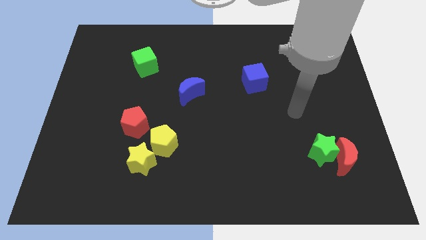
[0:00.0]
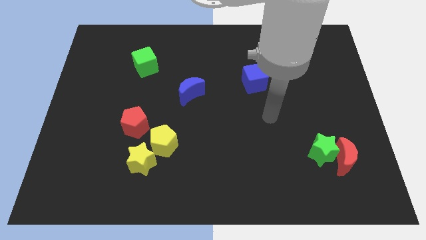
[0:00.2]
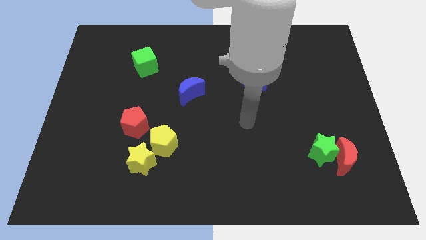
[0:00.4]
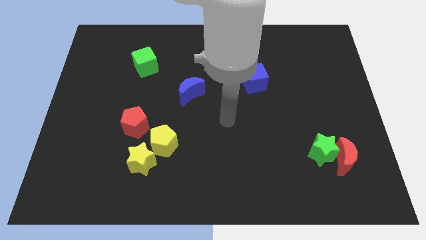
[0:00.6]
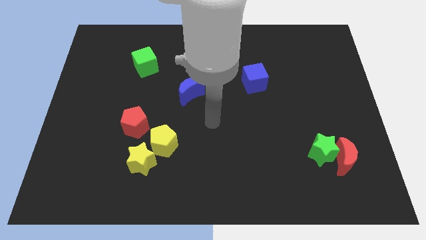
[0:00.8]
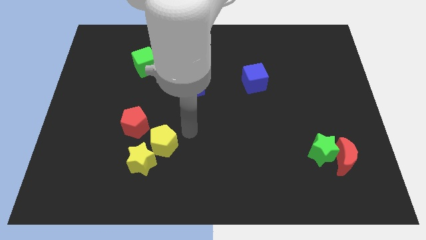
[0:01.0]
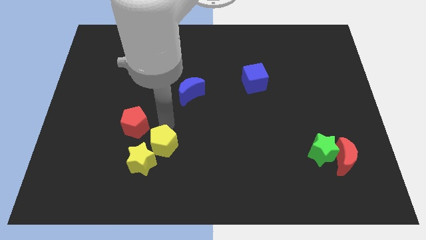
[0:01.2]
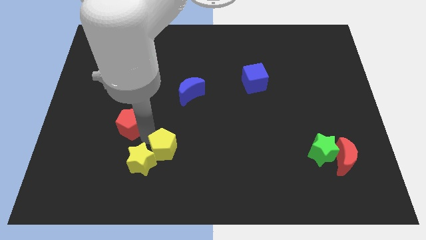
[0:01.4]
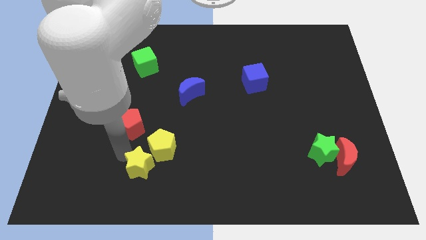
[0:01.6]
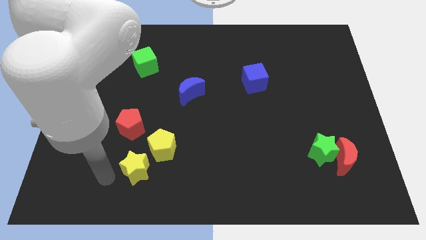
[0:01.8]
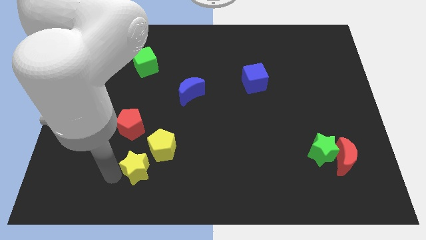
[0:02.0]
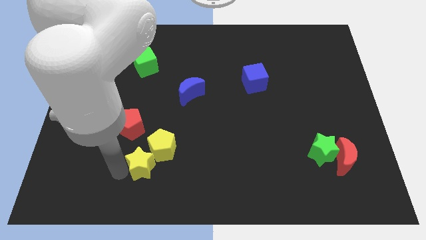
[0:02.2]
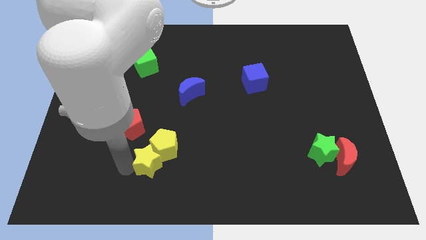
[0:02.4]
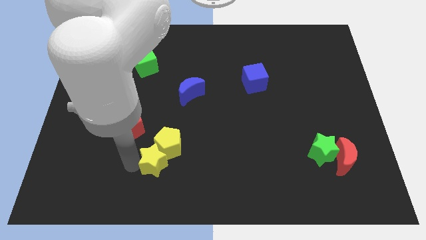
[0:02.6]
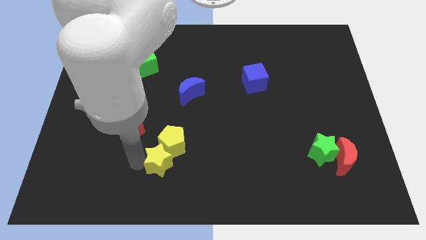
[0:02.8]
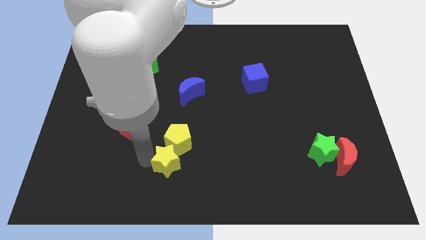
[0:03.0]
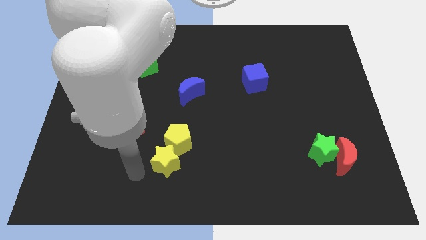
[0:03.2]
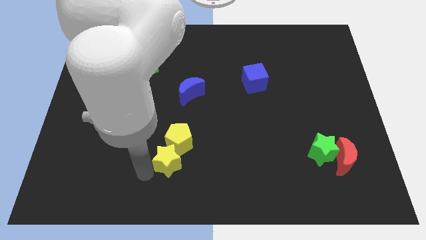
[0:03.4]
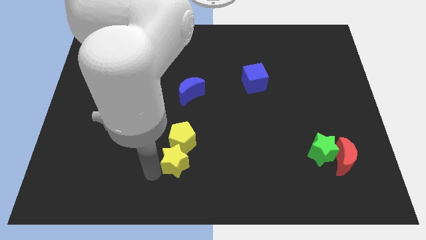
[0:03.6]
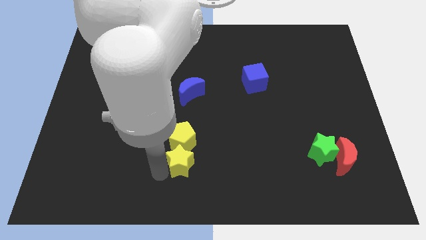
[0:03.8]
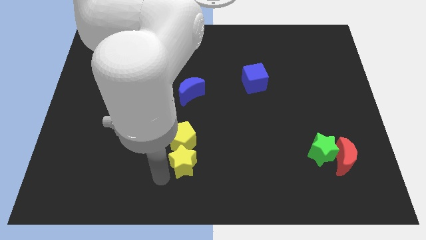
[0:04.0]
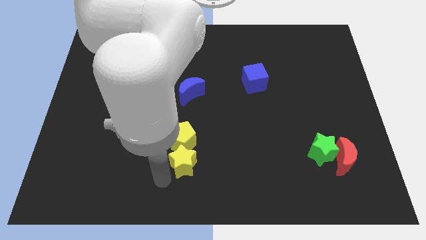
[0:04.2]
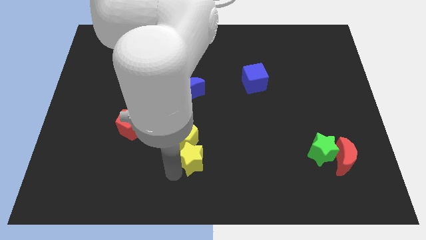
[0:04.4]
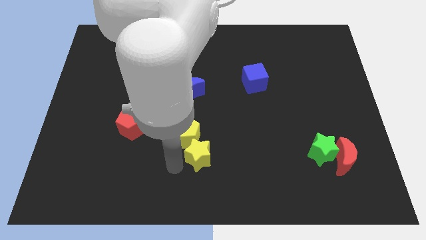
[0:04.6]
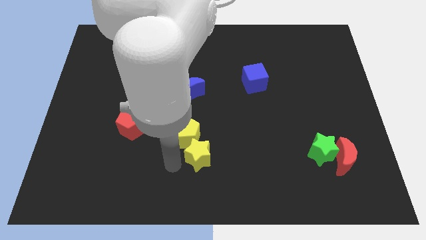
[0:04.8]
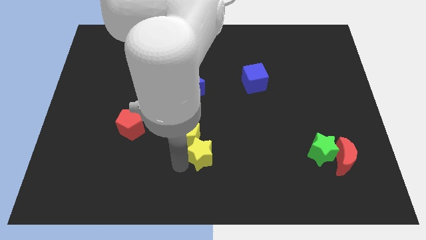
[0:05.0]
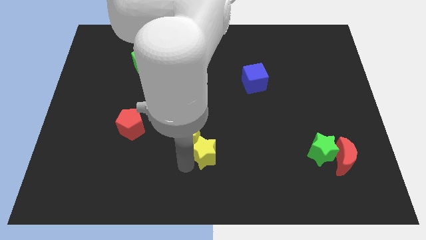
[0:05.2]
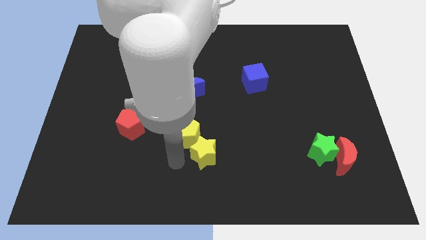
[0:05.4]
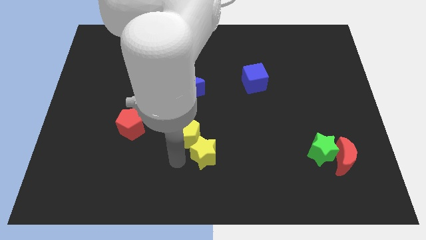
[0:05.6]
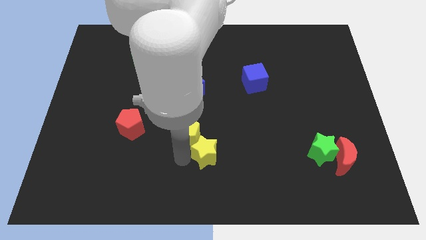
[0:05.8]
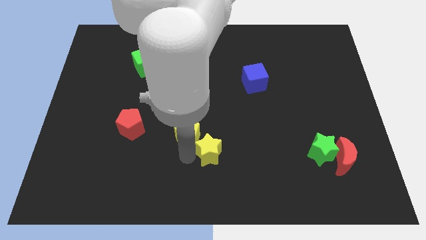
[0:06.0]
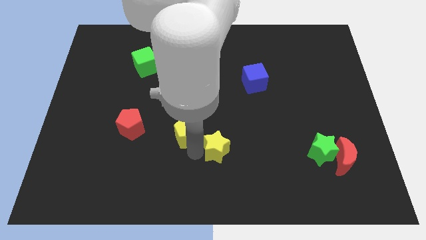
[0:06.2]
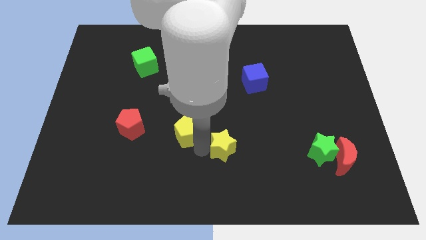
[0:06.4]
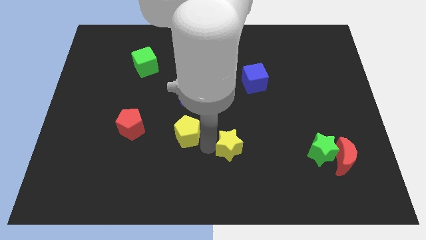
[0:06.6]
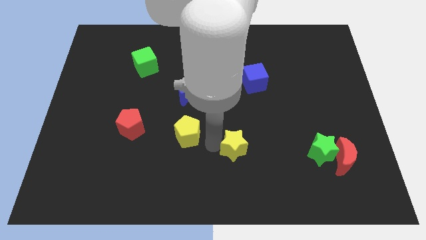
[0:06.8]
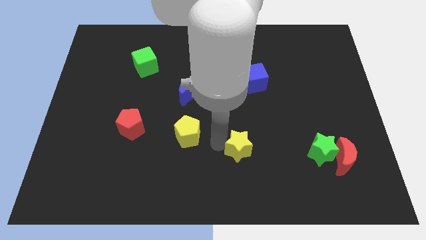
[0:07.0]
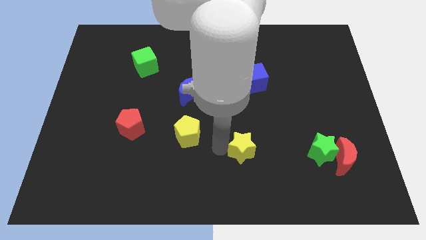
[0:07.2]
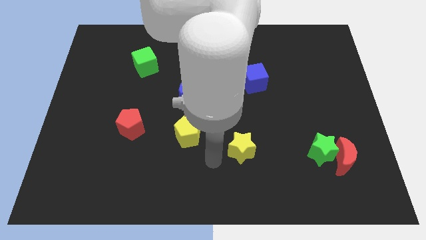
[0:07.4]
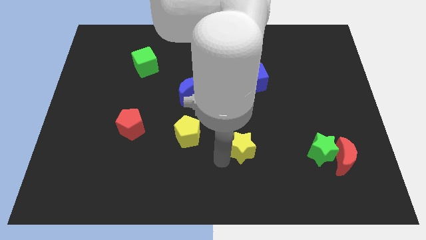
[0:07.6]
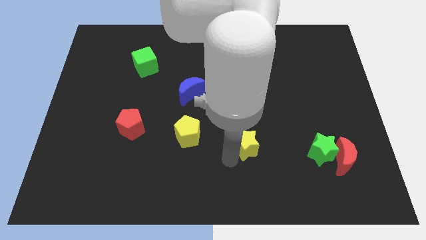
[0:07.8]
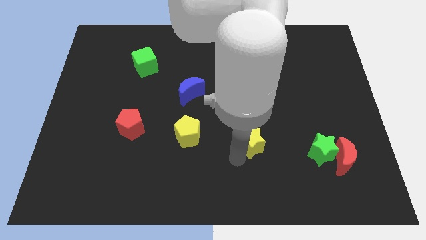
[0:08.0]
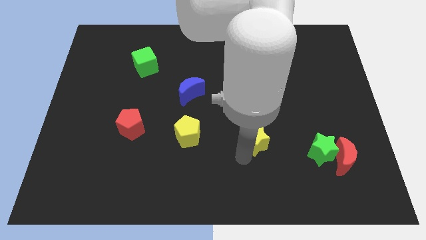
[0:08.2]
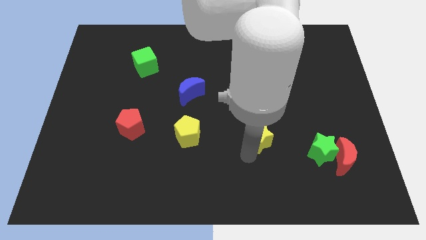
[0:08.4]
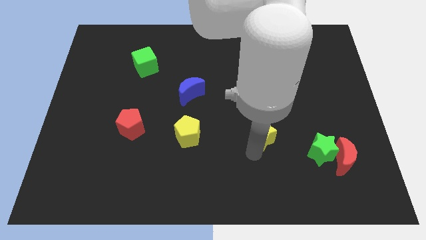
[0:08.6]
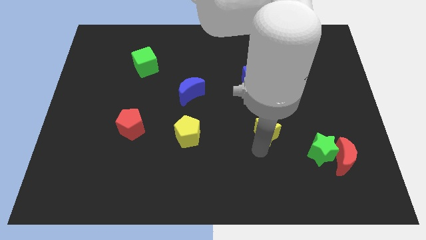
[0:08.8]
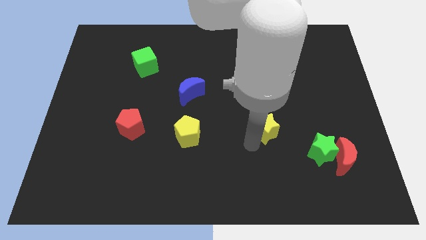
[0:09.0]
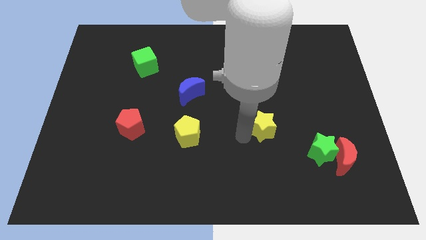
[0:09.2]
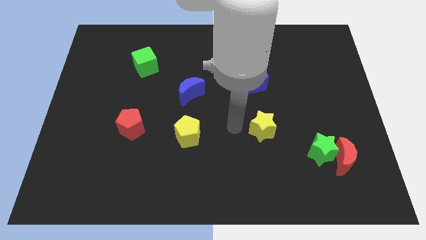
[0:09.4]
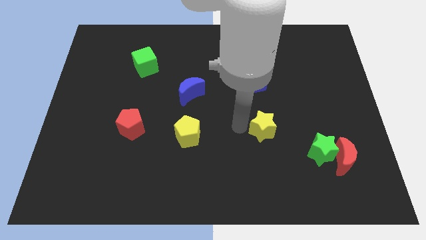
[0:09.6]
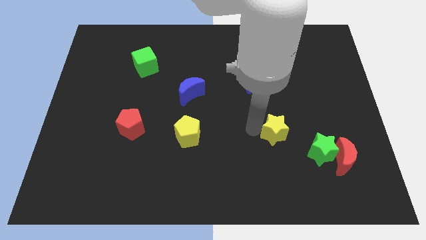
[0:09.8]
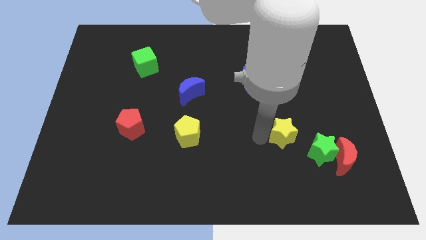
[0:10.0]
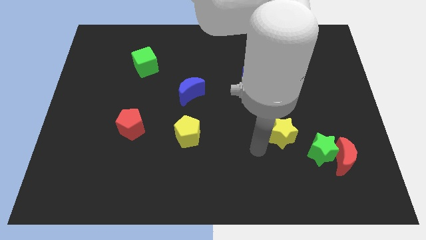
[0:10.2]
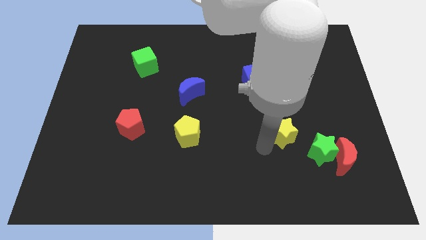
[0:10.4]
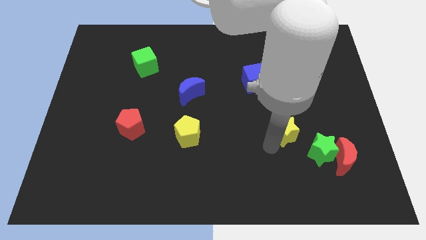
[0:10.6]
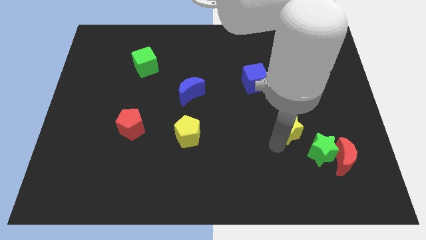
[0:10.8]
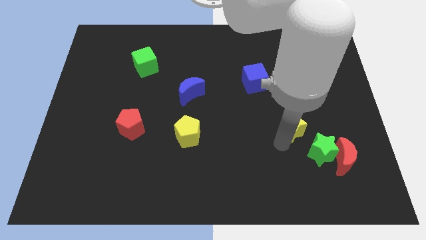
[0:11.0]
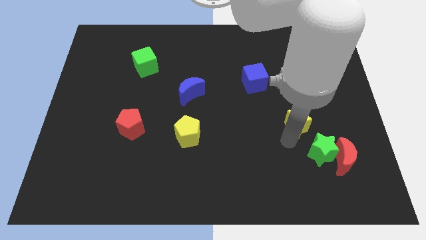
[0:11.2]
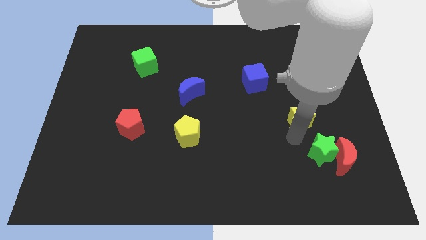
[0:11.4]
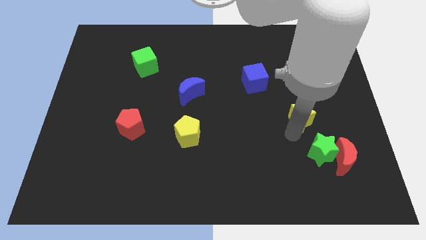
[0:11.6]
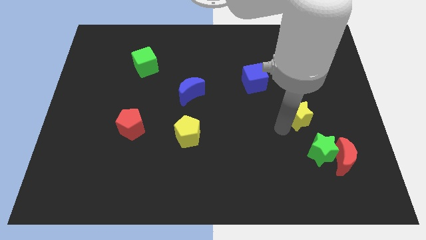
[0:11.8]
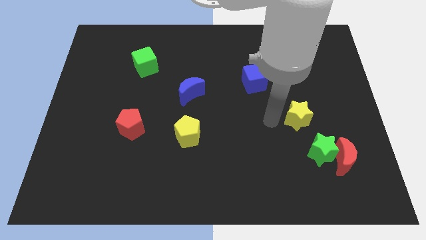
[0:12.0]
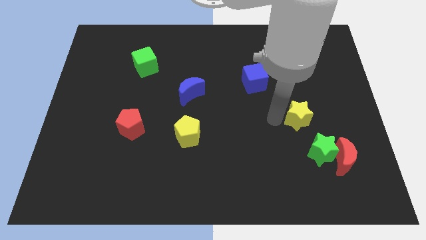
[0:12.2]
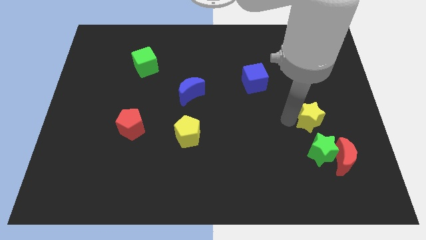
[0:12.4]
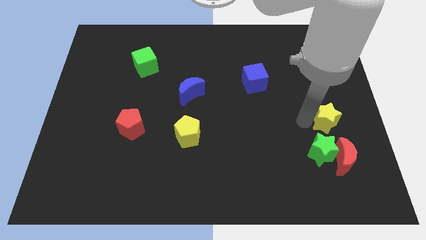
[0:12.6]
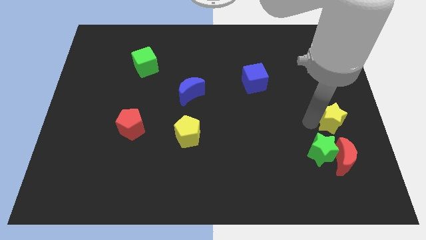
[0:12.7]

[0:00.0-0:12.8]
slide the yellow star to the right side of the board
